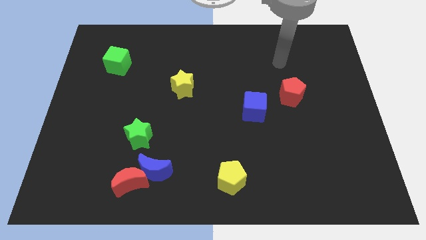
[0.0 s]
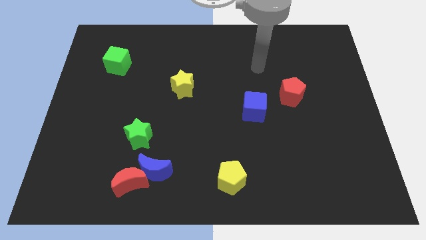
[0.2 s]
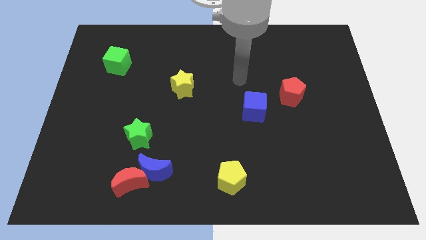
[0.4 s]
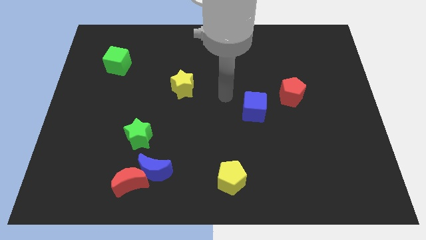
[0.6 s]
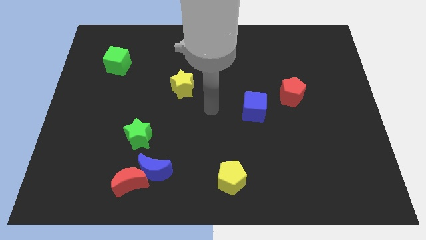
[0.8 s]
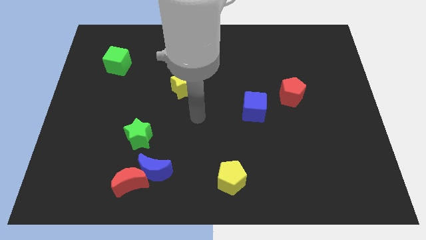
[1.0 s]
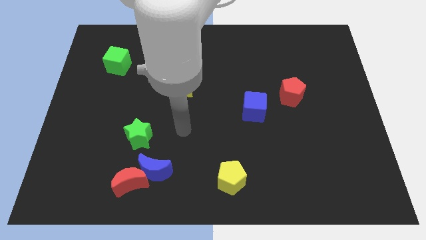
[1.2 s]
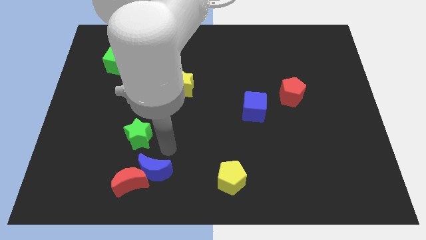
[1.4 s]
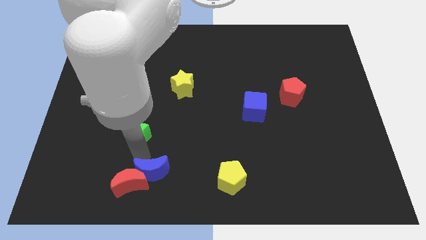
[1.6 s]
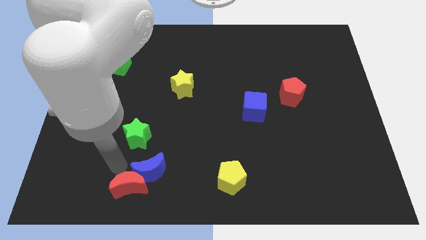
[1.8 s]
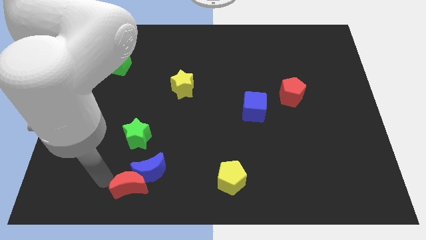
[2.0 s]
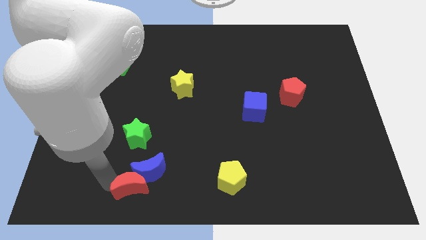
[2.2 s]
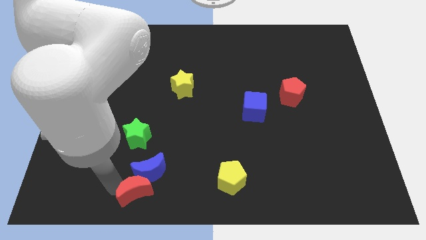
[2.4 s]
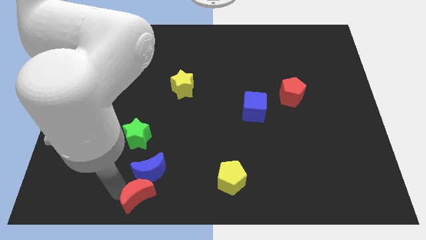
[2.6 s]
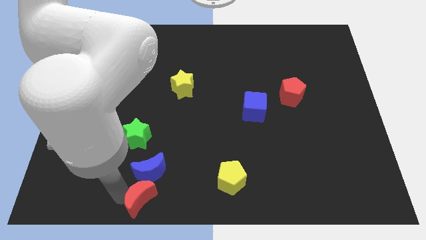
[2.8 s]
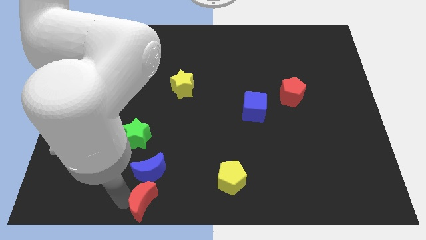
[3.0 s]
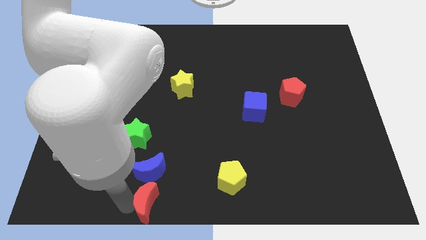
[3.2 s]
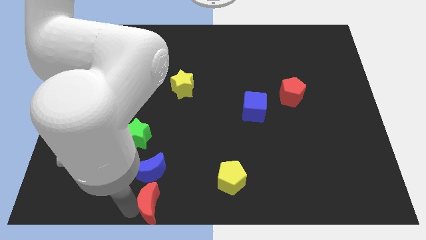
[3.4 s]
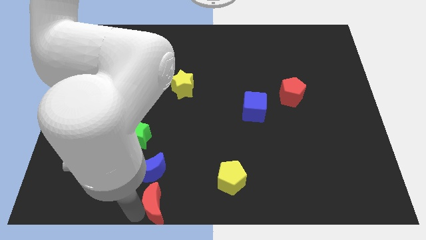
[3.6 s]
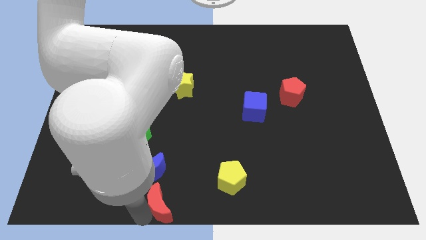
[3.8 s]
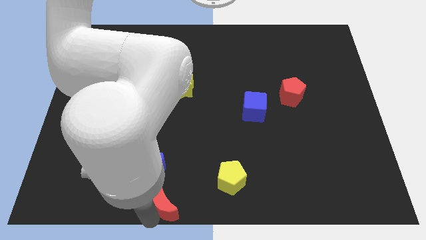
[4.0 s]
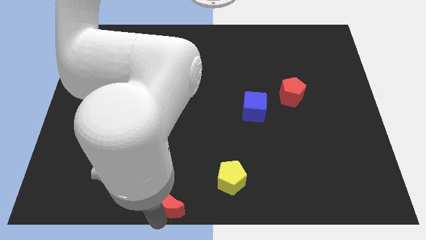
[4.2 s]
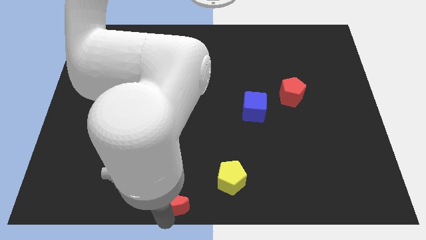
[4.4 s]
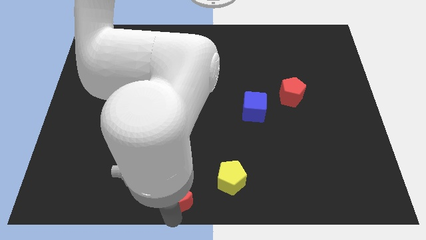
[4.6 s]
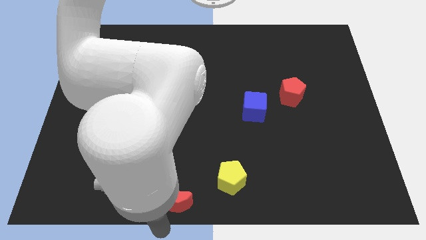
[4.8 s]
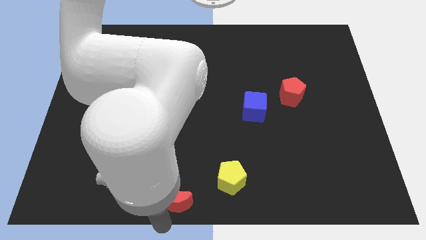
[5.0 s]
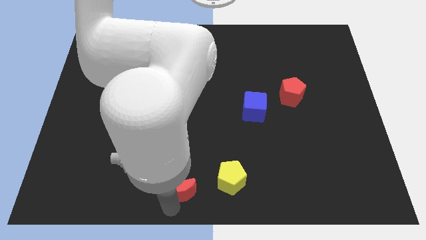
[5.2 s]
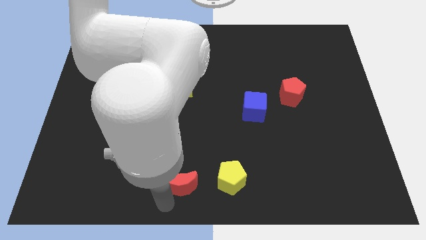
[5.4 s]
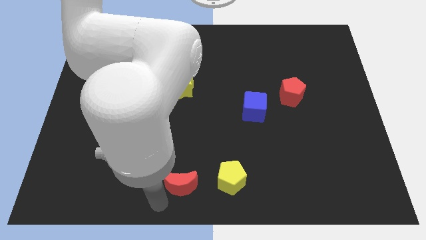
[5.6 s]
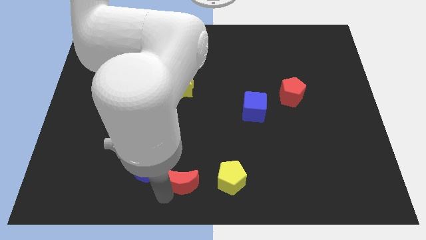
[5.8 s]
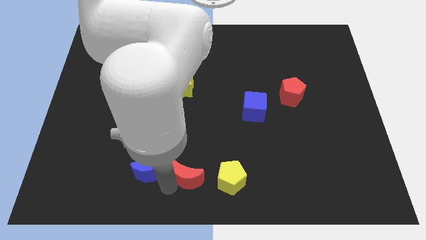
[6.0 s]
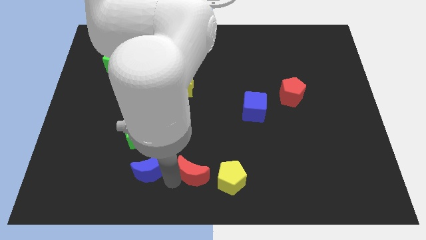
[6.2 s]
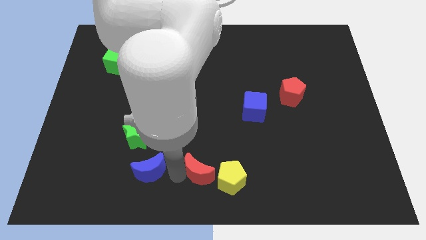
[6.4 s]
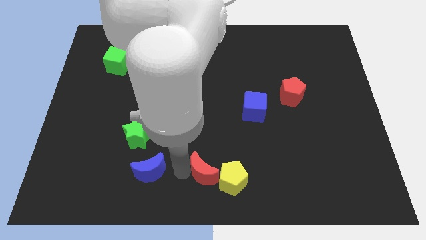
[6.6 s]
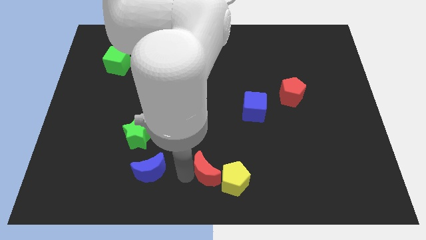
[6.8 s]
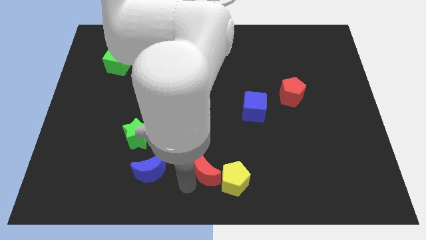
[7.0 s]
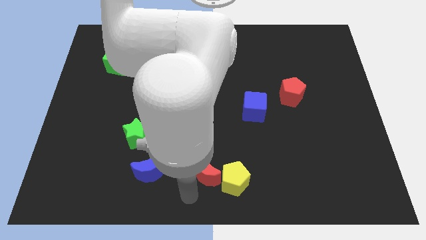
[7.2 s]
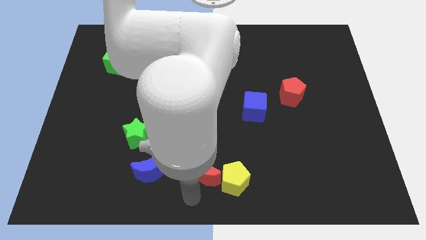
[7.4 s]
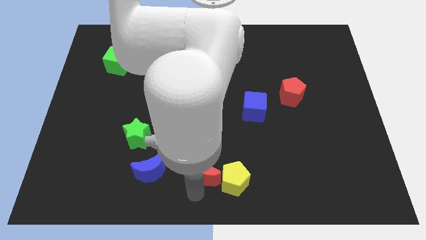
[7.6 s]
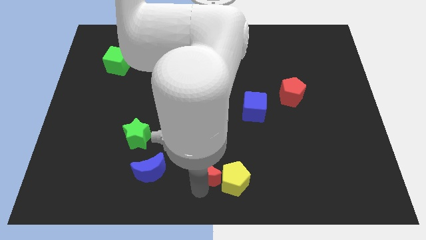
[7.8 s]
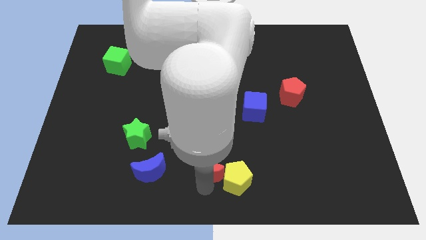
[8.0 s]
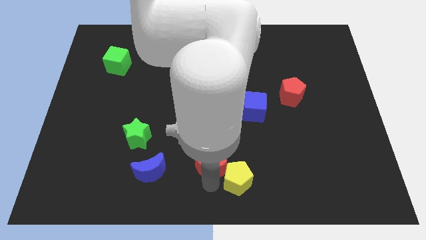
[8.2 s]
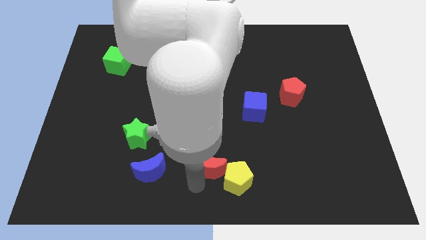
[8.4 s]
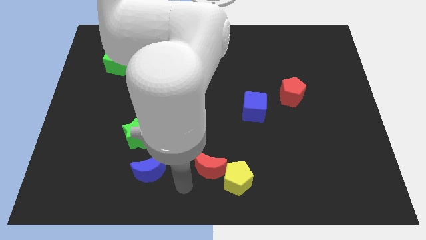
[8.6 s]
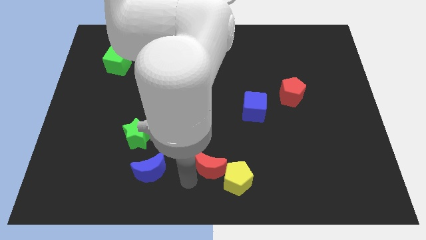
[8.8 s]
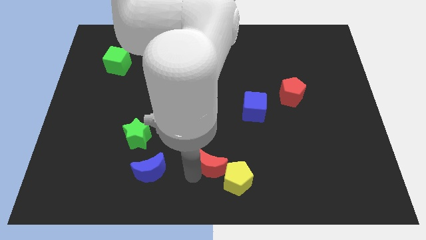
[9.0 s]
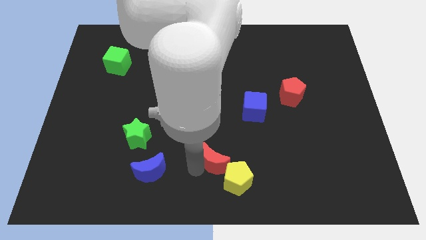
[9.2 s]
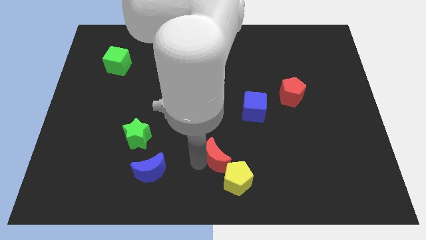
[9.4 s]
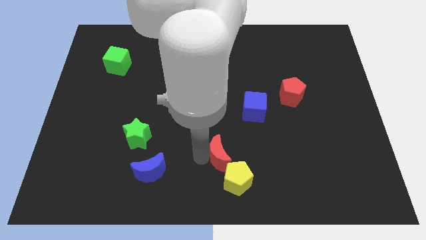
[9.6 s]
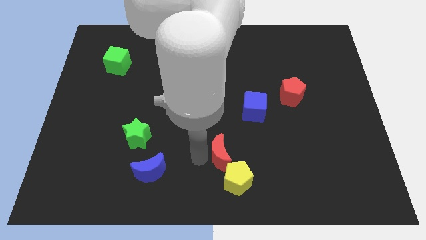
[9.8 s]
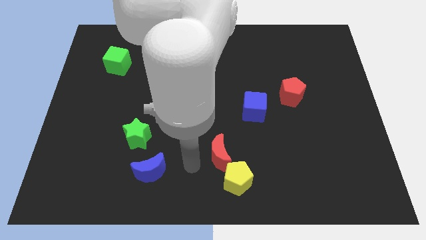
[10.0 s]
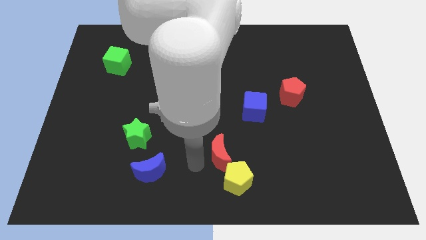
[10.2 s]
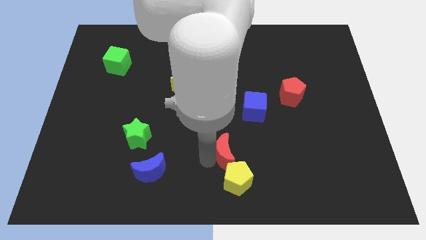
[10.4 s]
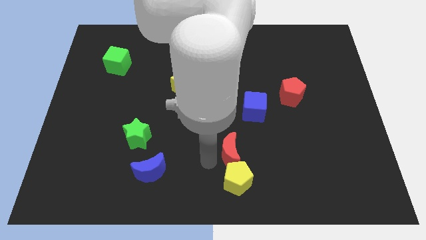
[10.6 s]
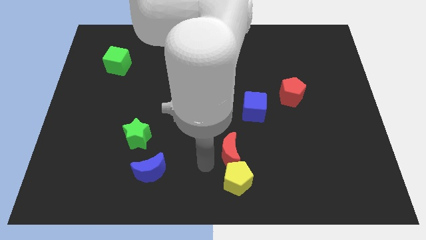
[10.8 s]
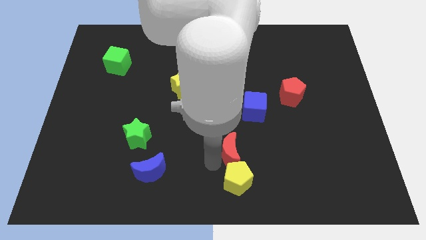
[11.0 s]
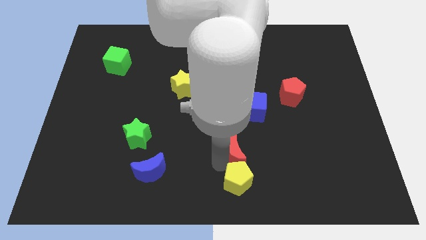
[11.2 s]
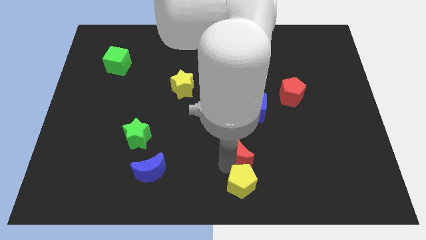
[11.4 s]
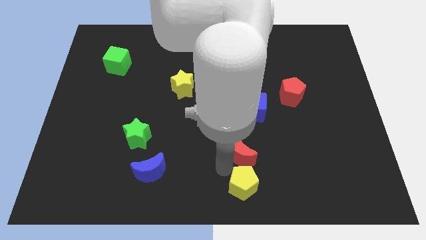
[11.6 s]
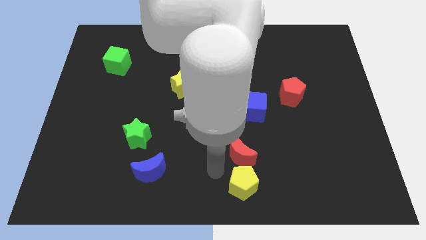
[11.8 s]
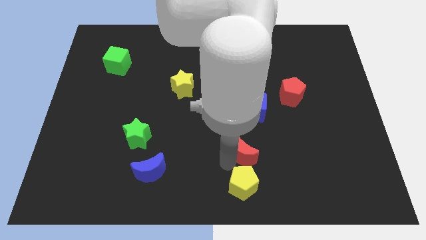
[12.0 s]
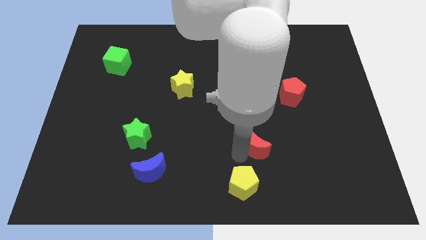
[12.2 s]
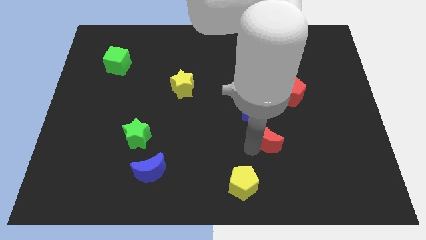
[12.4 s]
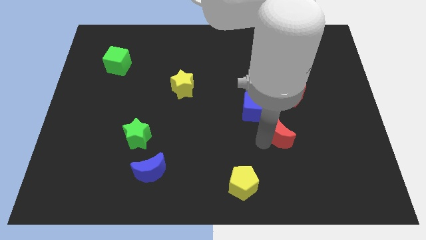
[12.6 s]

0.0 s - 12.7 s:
slide the red moon to the bottom side of the red pentagon

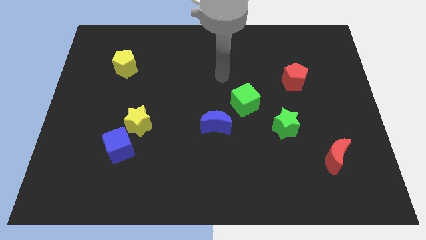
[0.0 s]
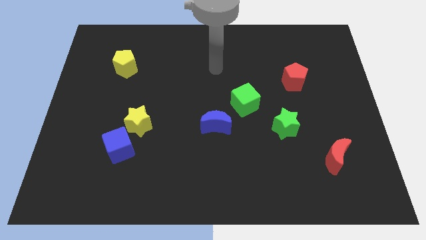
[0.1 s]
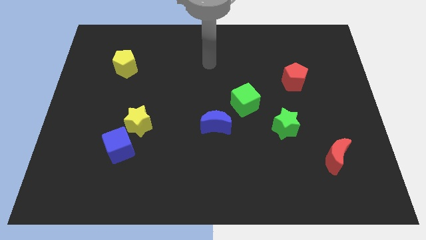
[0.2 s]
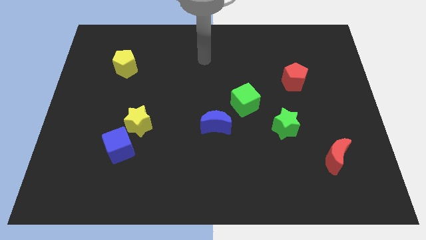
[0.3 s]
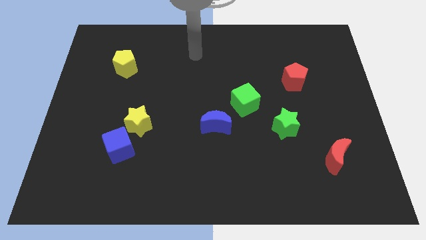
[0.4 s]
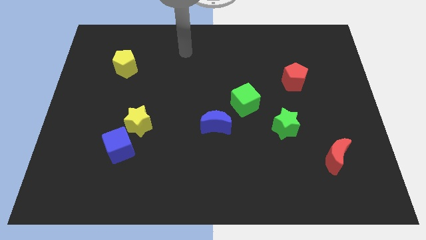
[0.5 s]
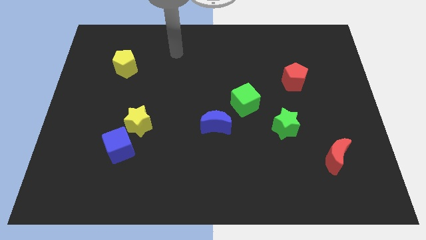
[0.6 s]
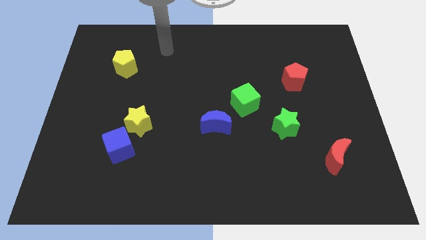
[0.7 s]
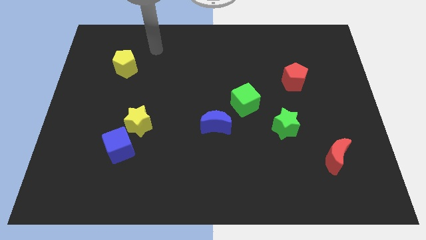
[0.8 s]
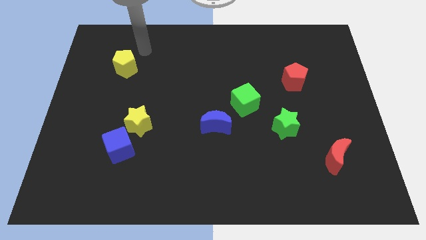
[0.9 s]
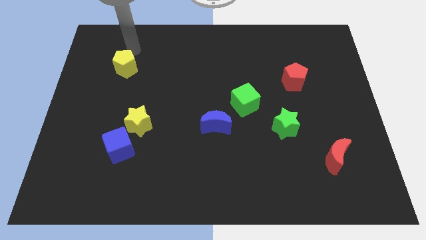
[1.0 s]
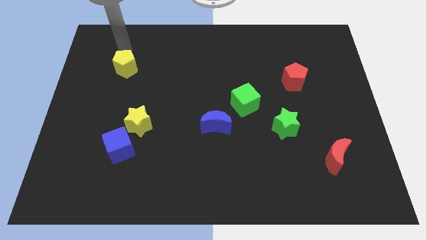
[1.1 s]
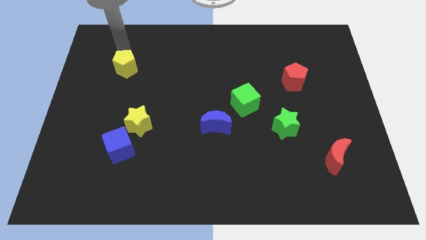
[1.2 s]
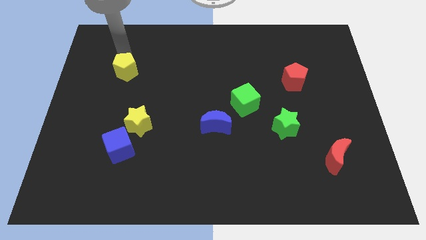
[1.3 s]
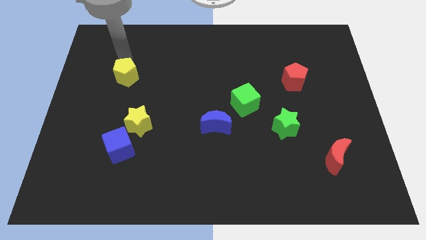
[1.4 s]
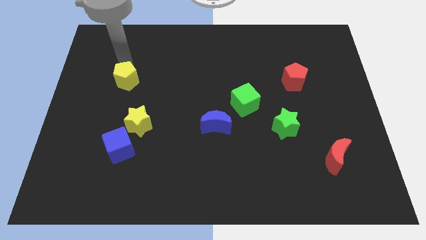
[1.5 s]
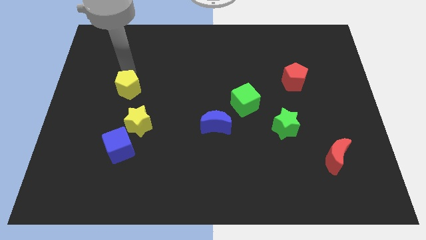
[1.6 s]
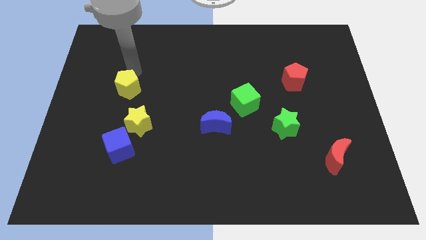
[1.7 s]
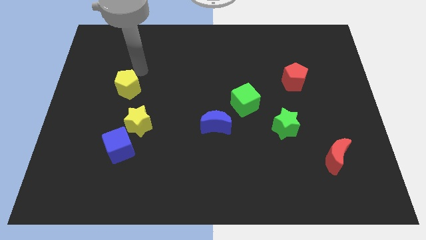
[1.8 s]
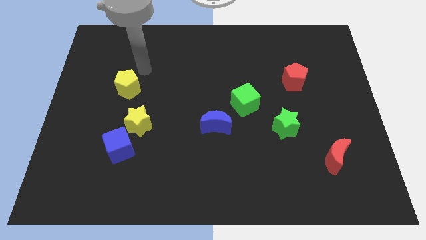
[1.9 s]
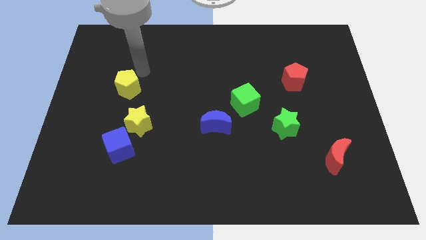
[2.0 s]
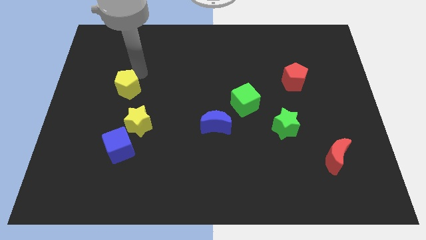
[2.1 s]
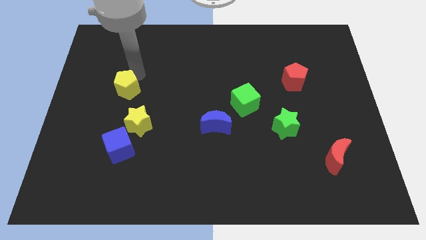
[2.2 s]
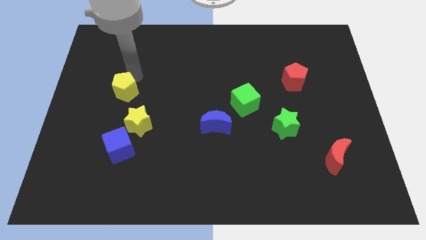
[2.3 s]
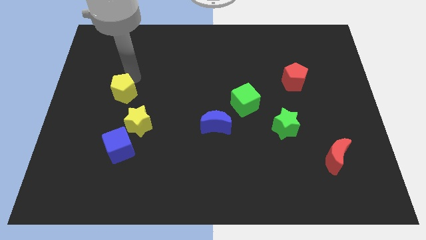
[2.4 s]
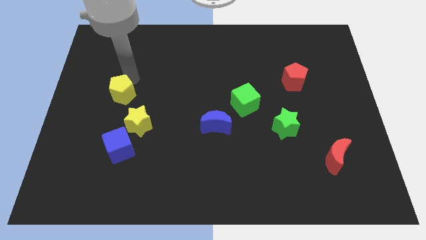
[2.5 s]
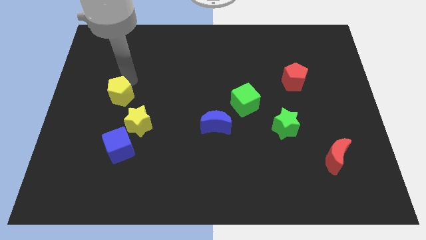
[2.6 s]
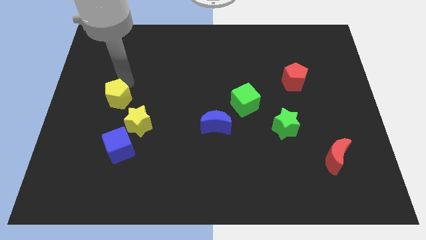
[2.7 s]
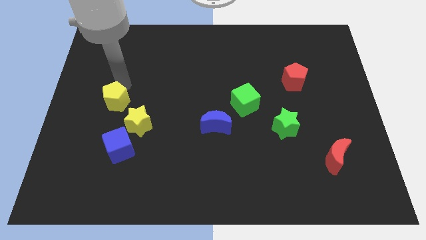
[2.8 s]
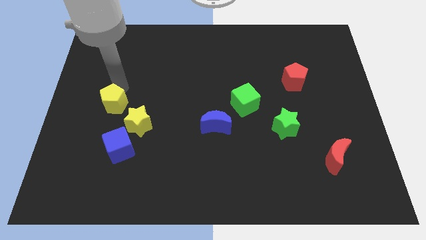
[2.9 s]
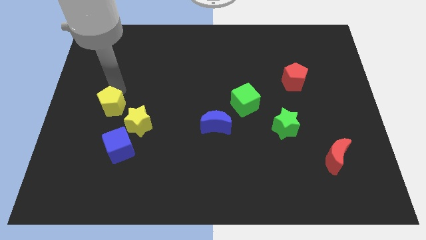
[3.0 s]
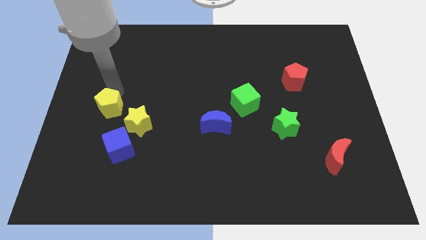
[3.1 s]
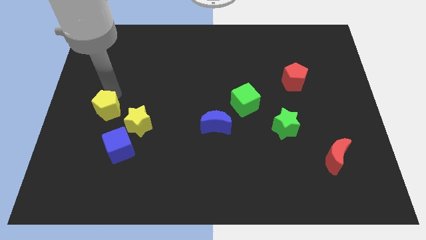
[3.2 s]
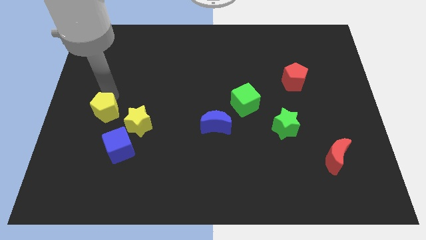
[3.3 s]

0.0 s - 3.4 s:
push the yellow pentagon to the top left of the blue cube
